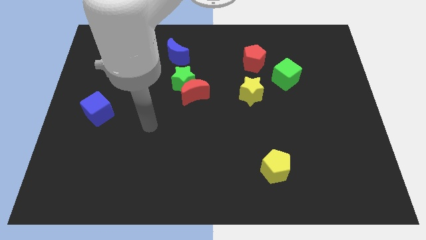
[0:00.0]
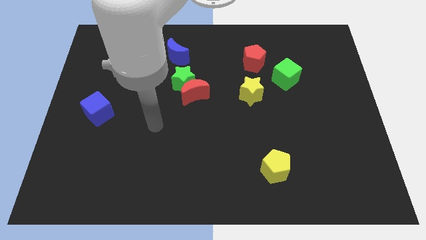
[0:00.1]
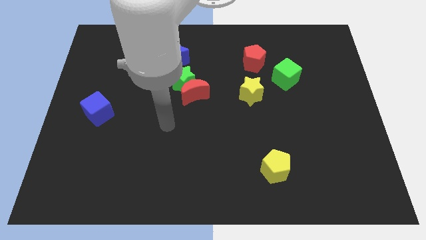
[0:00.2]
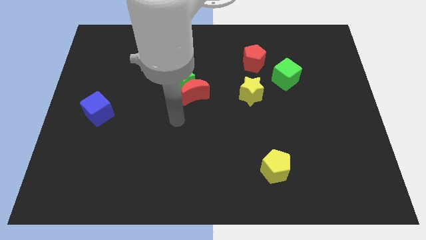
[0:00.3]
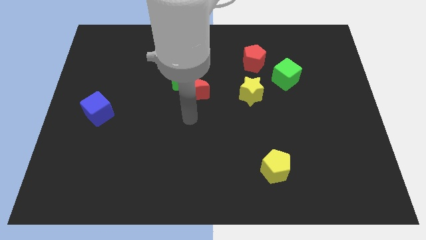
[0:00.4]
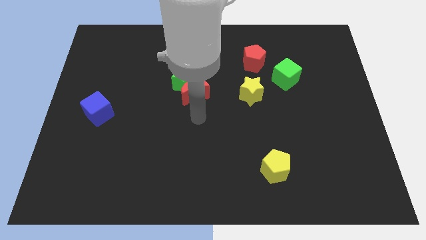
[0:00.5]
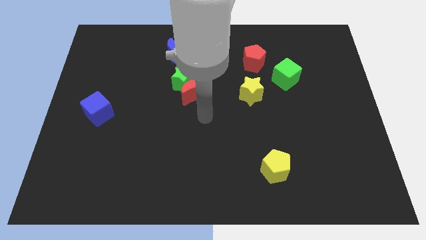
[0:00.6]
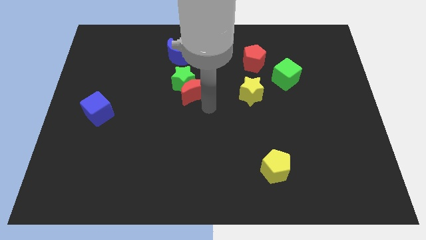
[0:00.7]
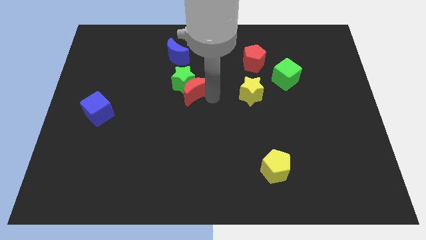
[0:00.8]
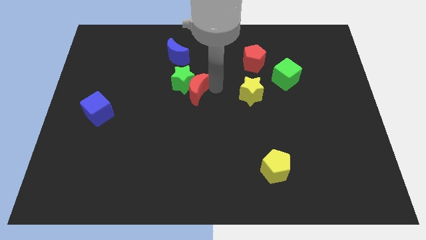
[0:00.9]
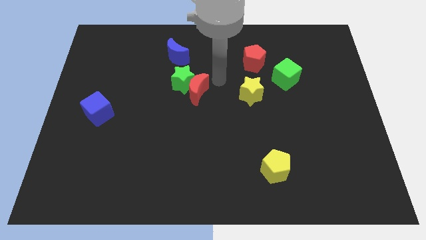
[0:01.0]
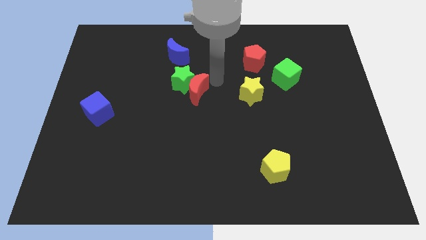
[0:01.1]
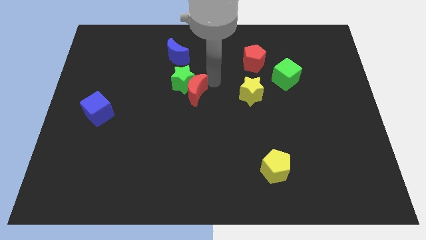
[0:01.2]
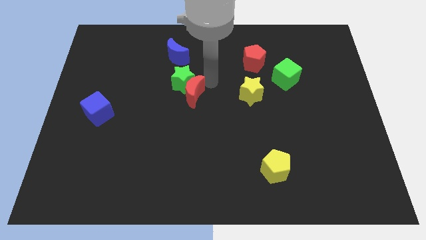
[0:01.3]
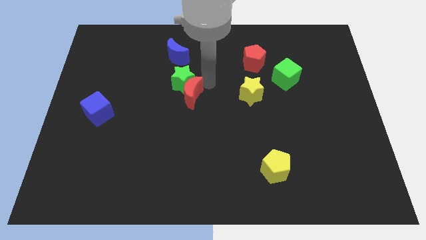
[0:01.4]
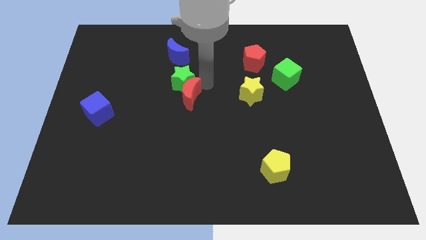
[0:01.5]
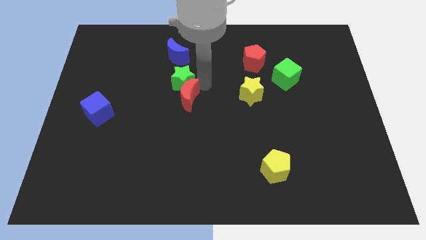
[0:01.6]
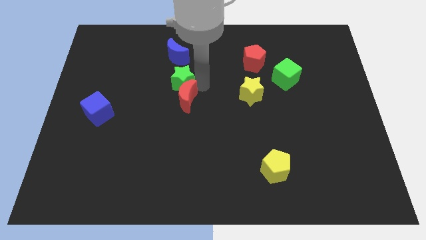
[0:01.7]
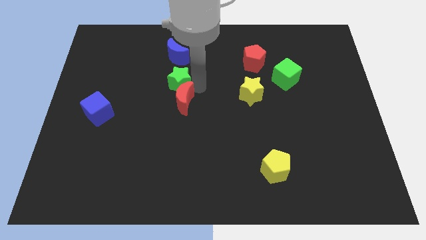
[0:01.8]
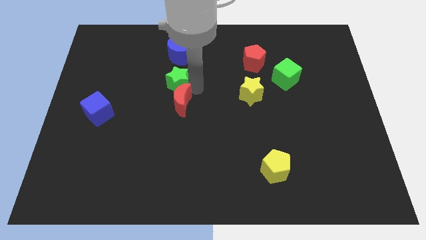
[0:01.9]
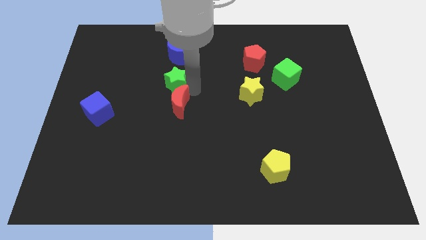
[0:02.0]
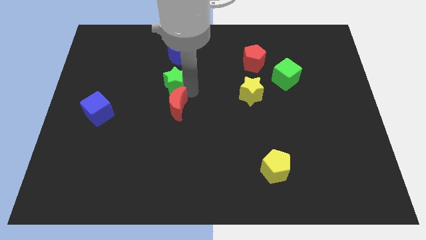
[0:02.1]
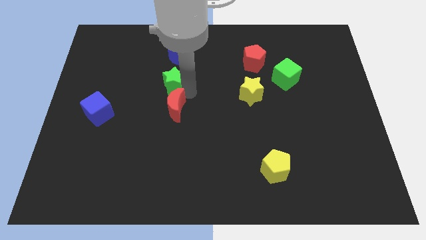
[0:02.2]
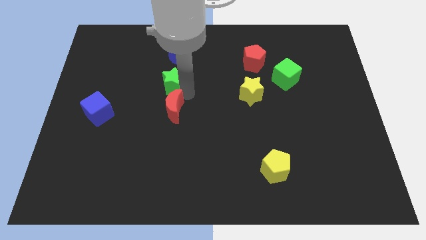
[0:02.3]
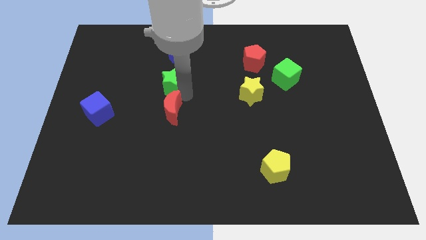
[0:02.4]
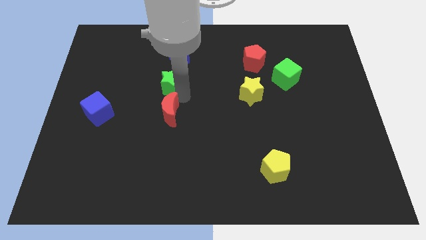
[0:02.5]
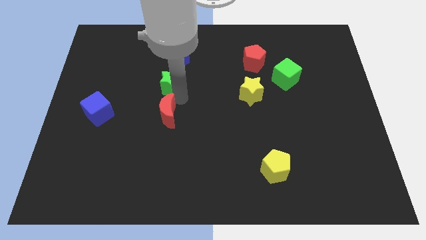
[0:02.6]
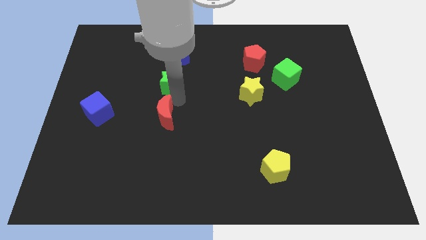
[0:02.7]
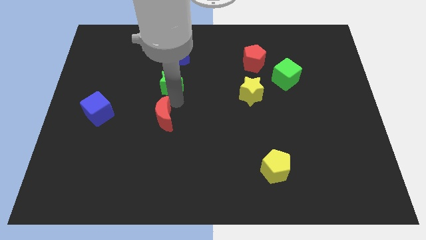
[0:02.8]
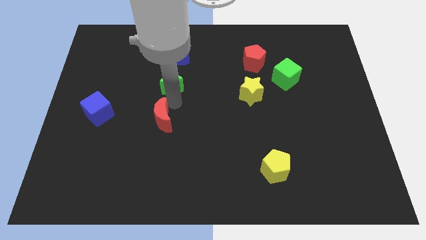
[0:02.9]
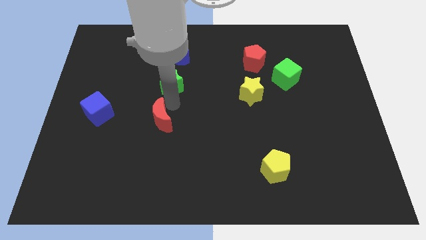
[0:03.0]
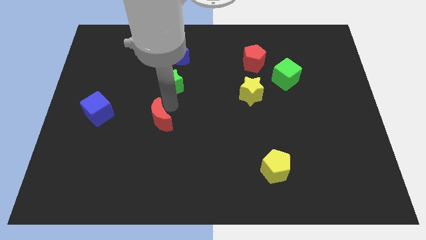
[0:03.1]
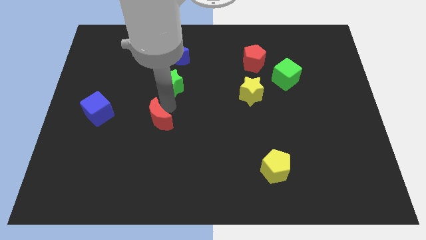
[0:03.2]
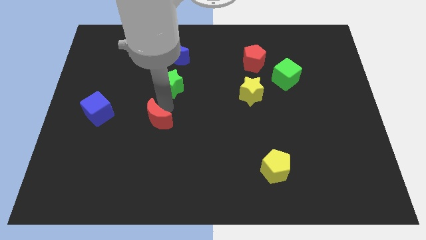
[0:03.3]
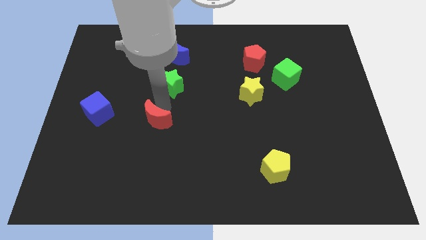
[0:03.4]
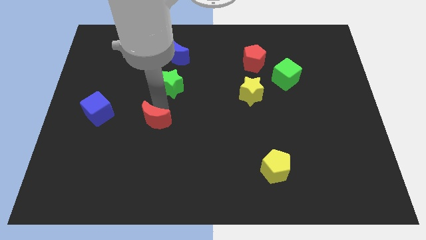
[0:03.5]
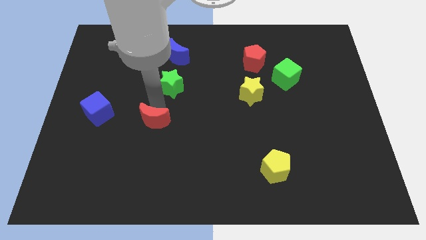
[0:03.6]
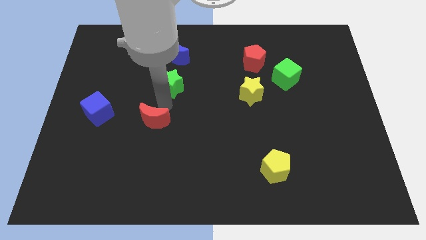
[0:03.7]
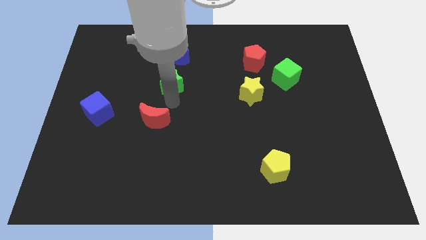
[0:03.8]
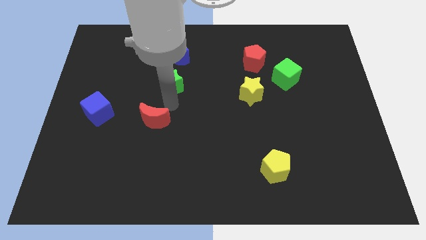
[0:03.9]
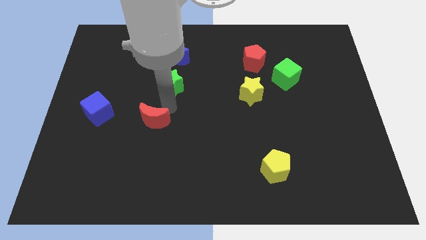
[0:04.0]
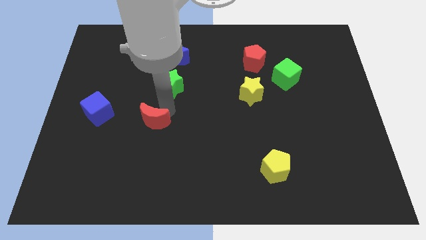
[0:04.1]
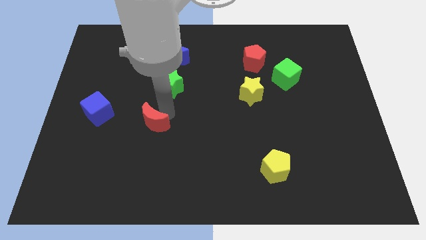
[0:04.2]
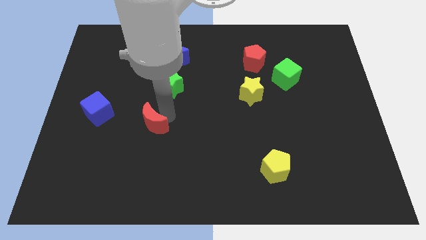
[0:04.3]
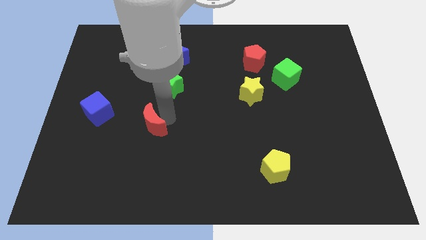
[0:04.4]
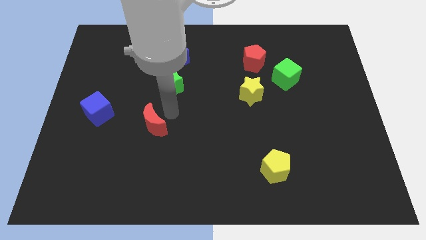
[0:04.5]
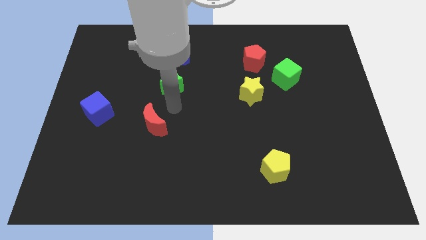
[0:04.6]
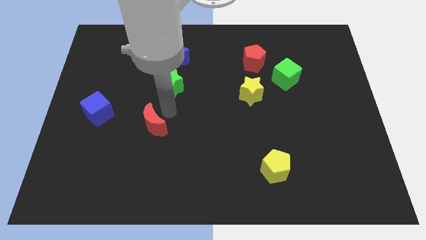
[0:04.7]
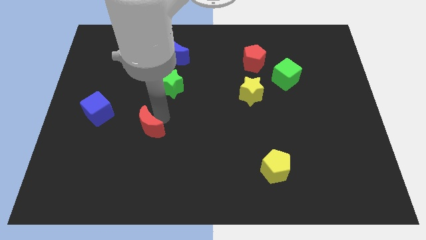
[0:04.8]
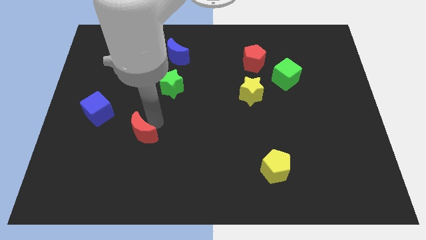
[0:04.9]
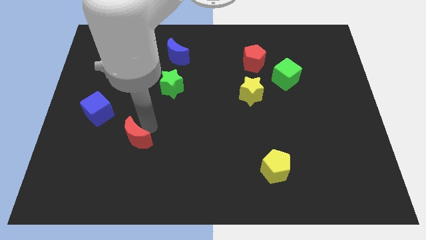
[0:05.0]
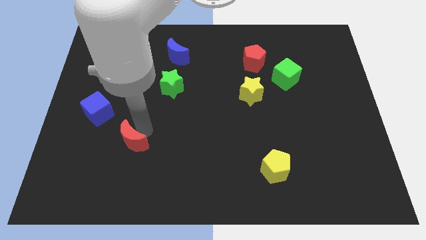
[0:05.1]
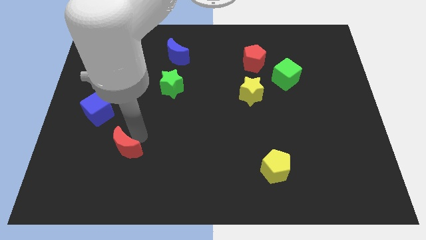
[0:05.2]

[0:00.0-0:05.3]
push the red moon downwards and then to the left

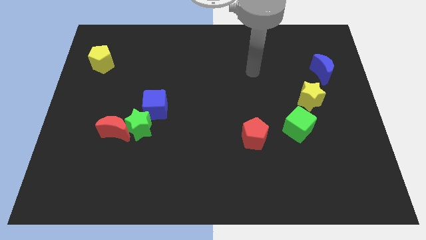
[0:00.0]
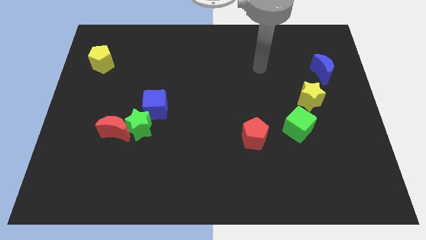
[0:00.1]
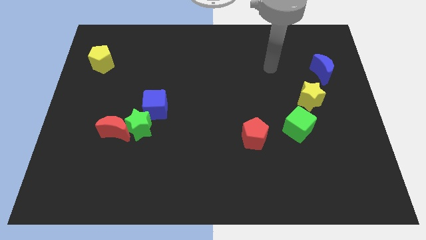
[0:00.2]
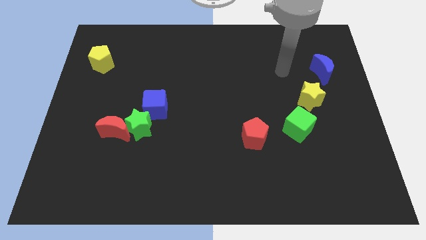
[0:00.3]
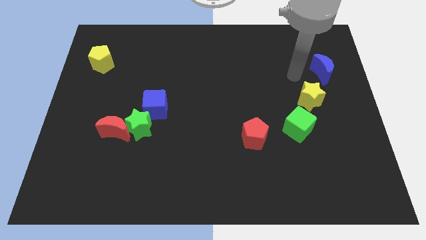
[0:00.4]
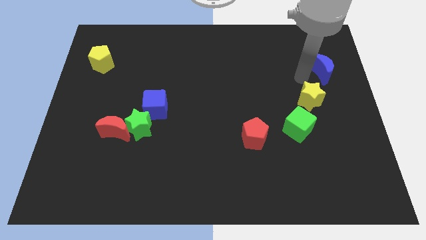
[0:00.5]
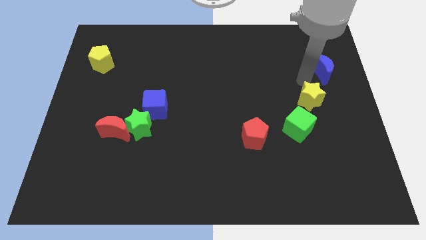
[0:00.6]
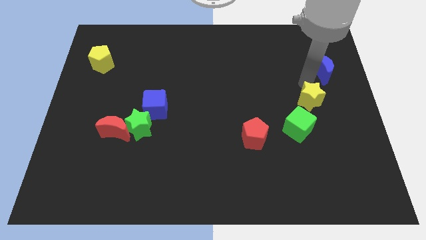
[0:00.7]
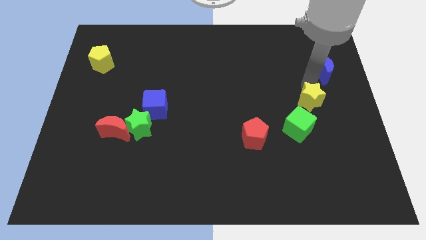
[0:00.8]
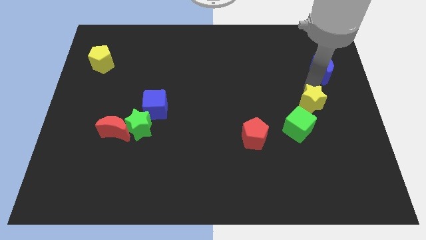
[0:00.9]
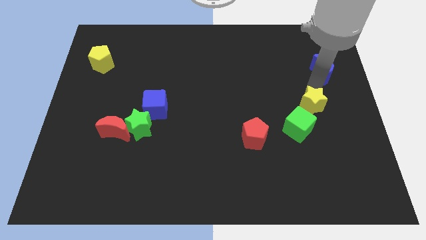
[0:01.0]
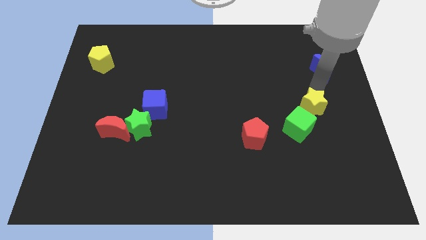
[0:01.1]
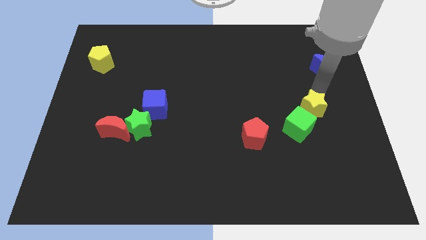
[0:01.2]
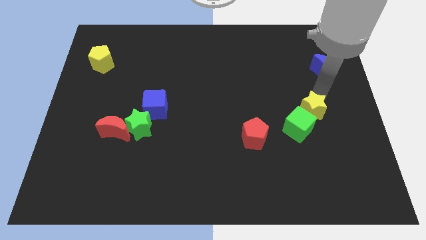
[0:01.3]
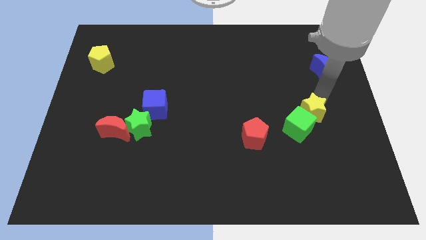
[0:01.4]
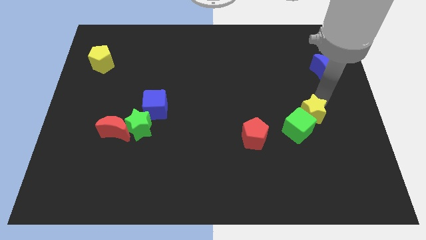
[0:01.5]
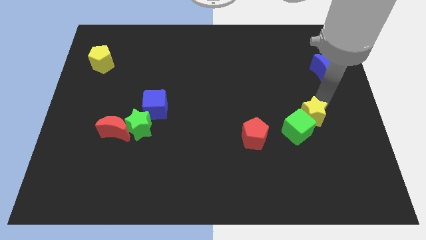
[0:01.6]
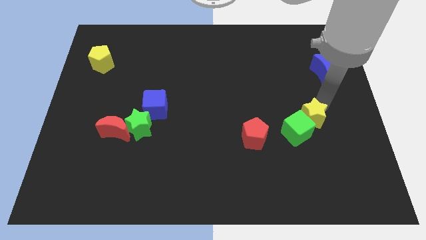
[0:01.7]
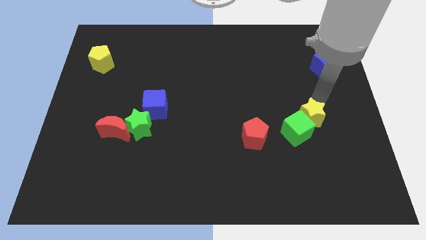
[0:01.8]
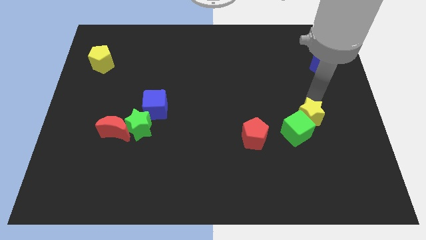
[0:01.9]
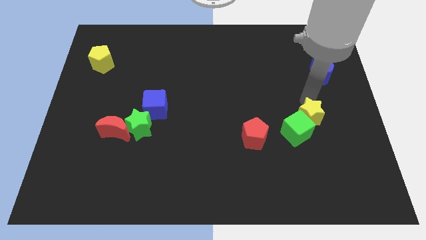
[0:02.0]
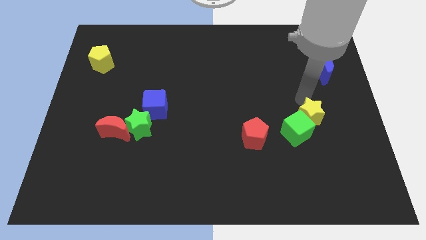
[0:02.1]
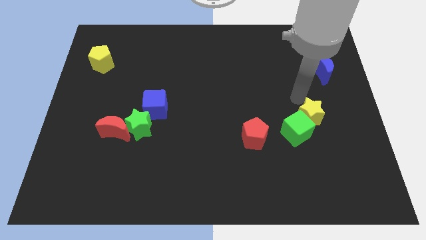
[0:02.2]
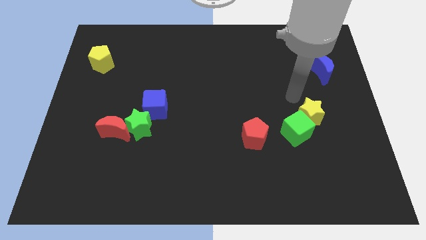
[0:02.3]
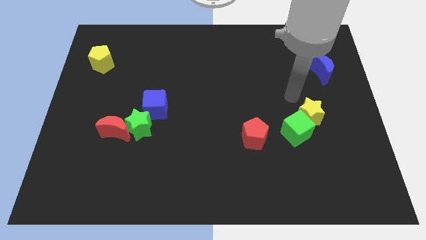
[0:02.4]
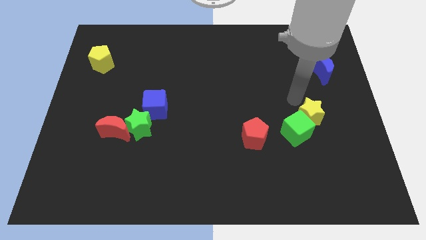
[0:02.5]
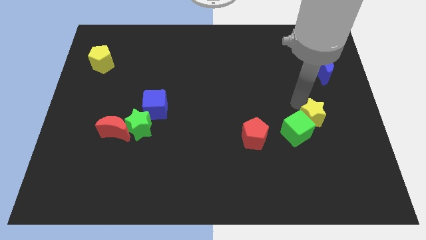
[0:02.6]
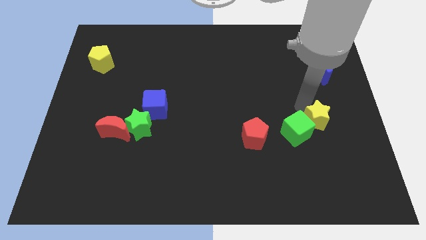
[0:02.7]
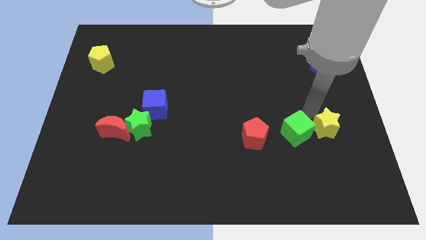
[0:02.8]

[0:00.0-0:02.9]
push the yellow star down slightly
